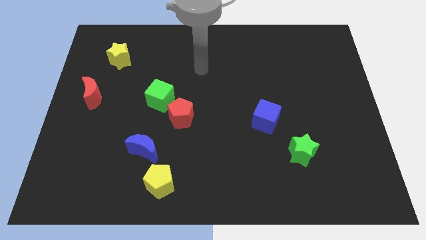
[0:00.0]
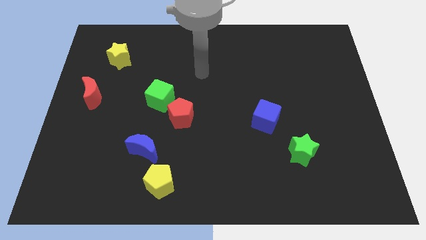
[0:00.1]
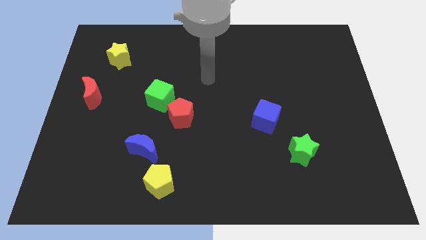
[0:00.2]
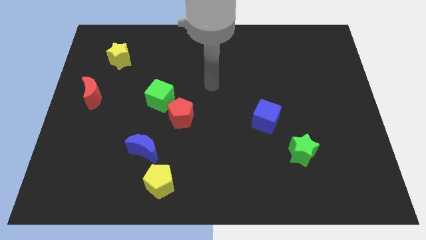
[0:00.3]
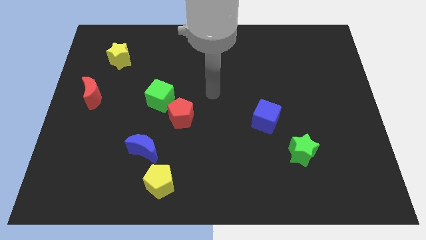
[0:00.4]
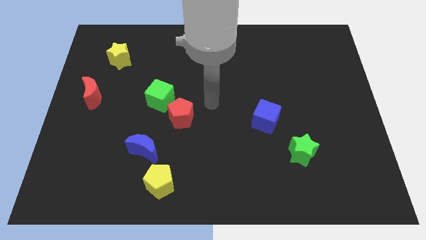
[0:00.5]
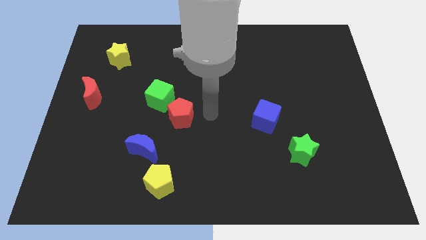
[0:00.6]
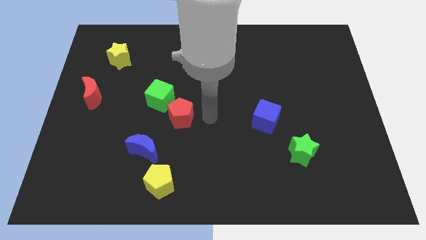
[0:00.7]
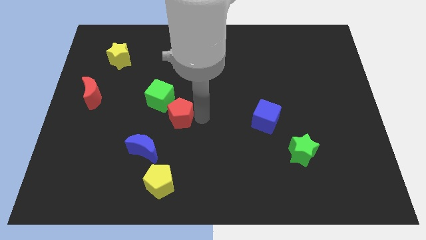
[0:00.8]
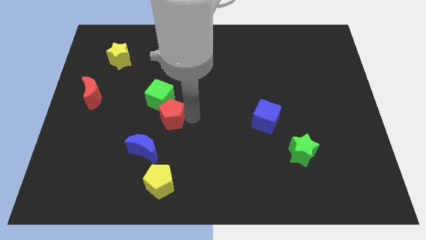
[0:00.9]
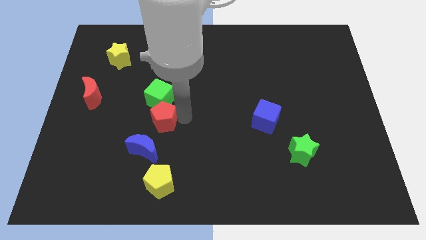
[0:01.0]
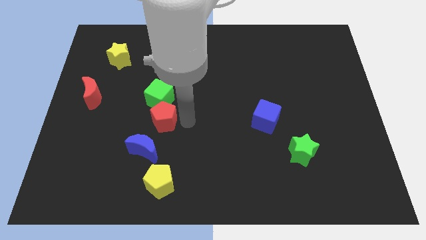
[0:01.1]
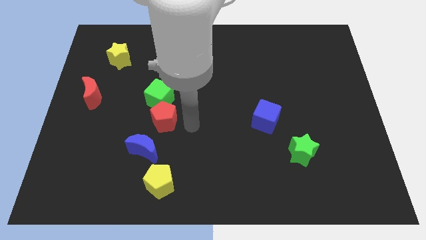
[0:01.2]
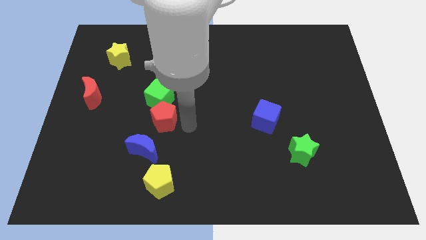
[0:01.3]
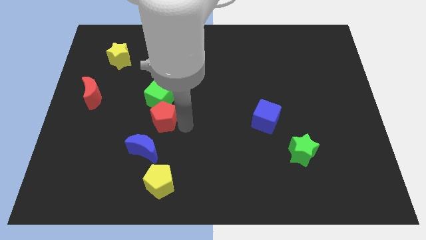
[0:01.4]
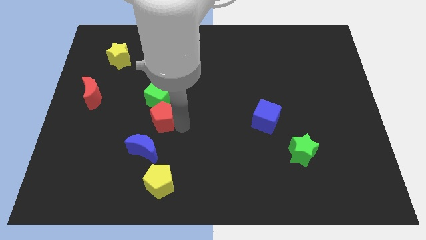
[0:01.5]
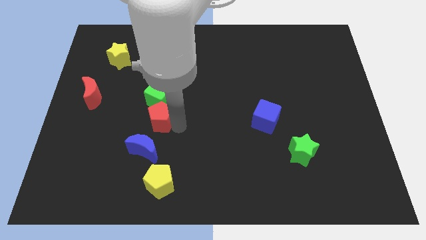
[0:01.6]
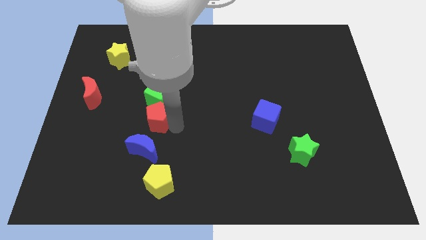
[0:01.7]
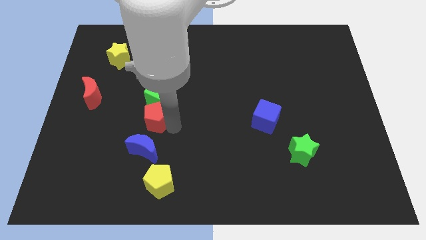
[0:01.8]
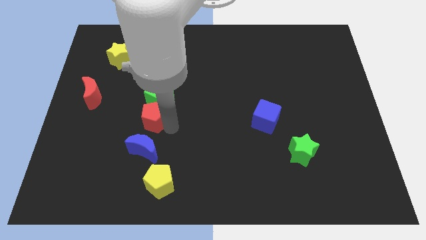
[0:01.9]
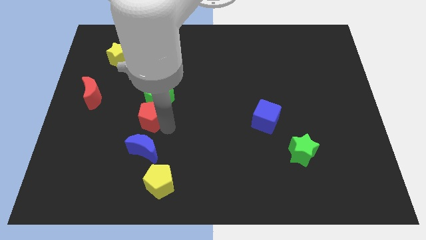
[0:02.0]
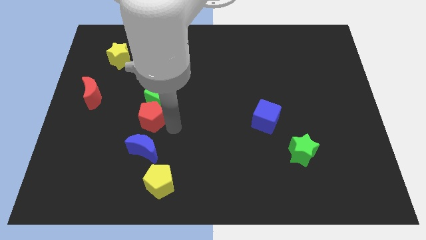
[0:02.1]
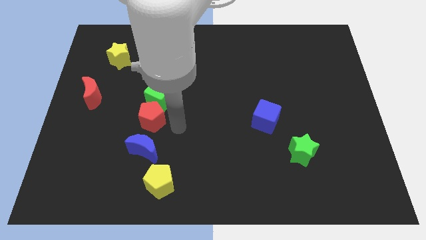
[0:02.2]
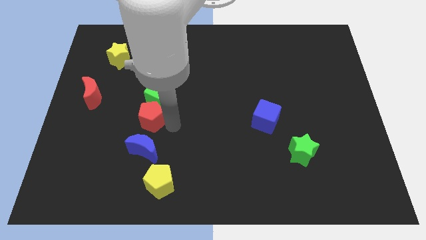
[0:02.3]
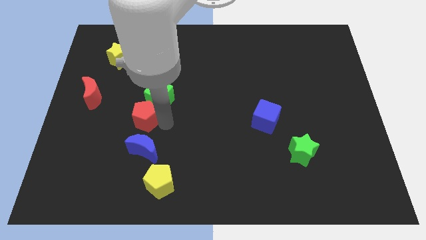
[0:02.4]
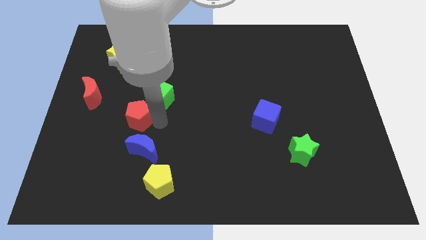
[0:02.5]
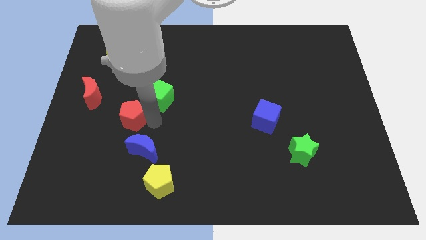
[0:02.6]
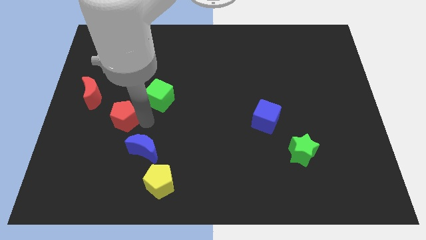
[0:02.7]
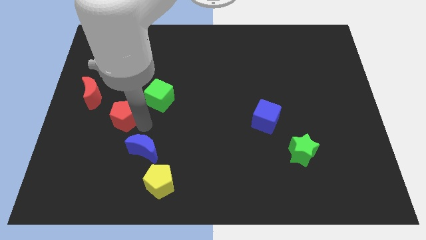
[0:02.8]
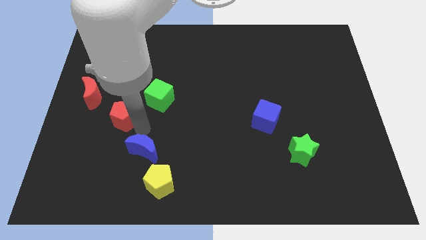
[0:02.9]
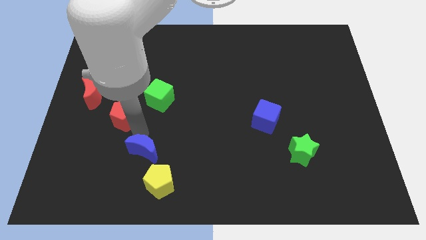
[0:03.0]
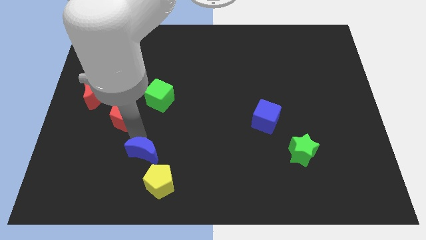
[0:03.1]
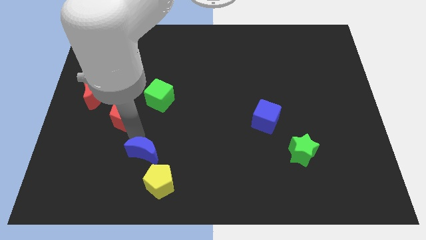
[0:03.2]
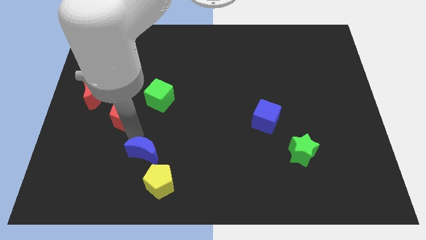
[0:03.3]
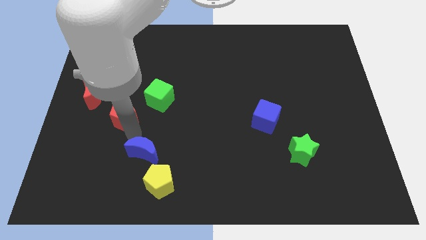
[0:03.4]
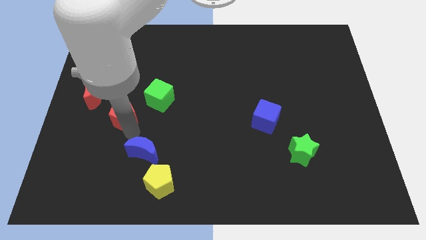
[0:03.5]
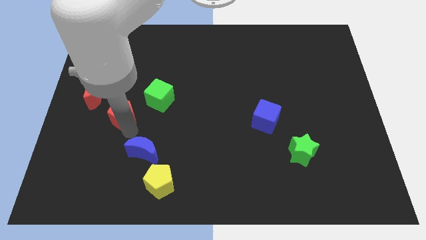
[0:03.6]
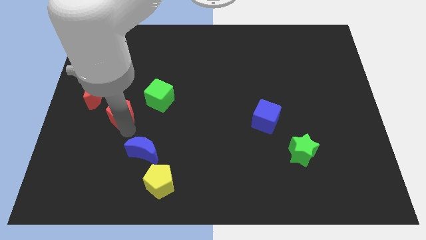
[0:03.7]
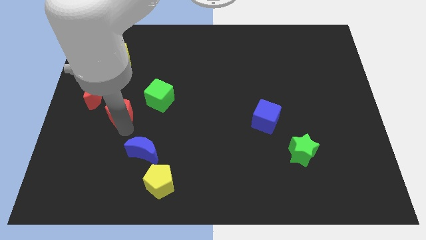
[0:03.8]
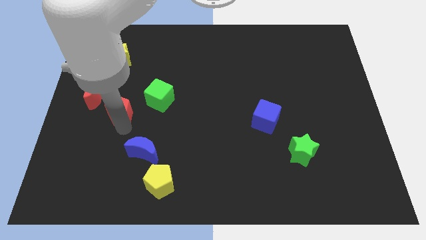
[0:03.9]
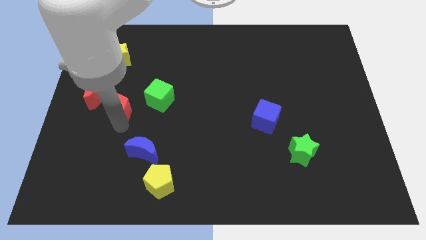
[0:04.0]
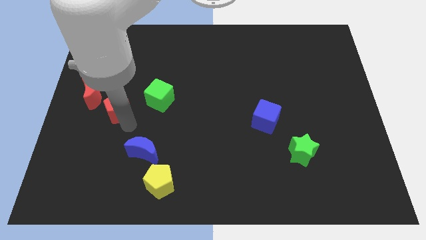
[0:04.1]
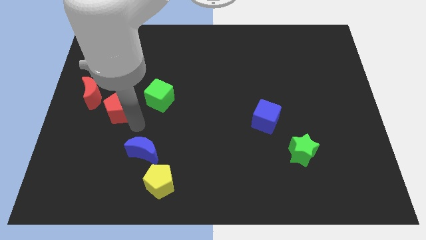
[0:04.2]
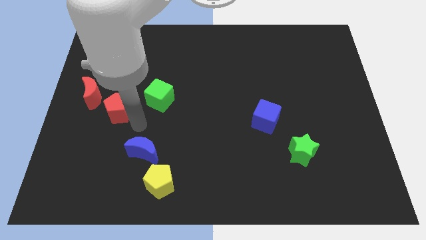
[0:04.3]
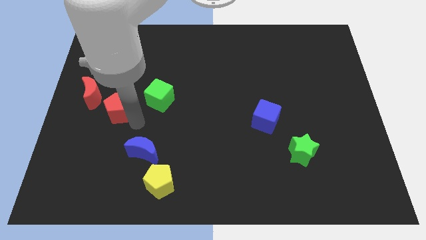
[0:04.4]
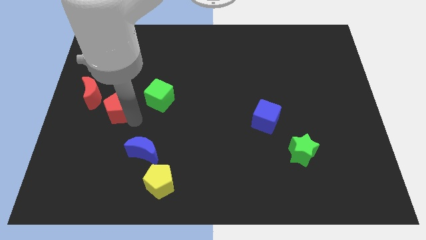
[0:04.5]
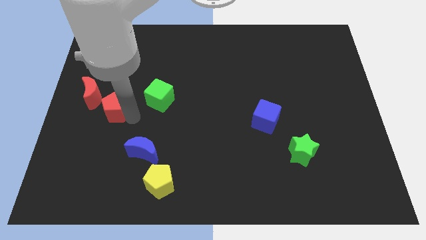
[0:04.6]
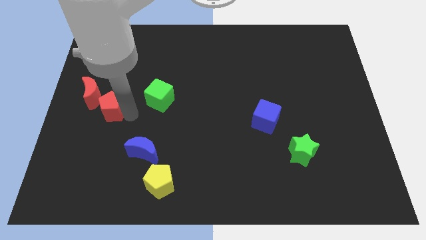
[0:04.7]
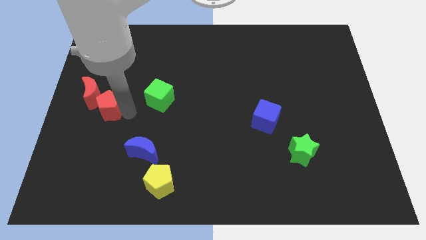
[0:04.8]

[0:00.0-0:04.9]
slide the red pentagon close to the red moon

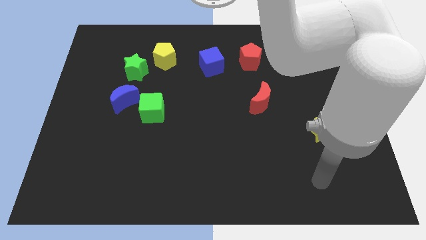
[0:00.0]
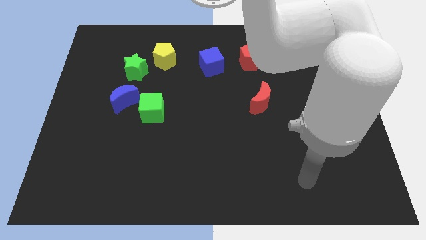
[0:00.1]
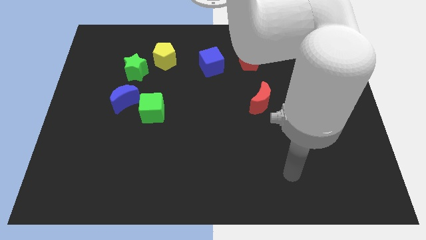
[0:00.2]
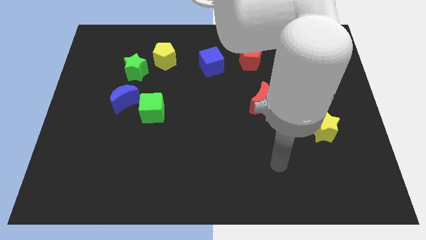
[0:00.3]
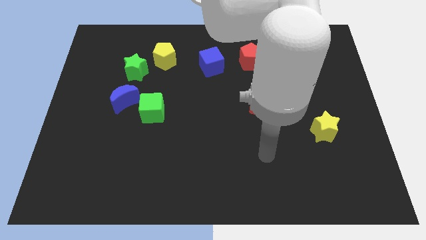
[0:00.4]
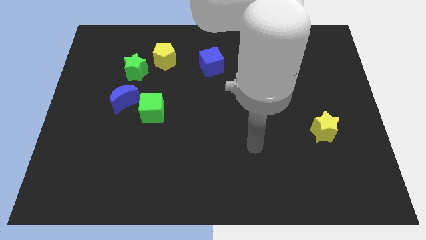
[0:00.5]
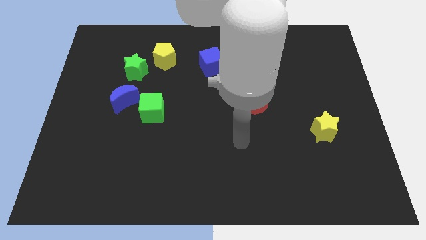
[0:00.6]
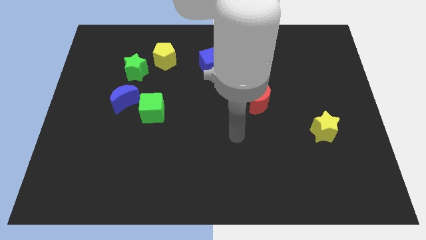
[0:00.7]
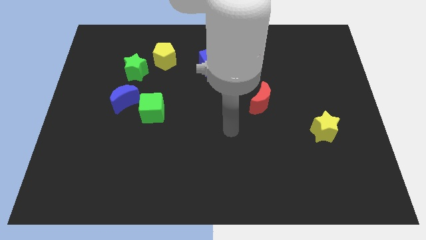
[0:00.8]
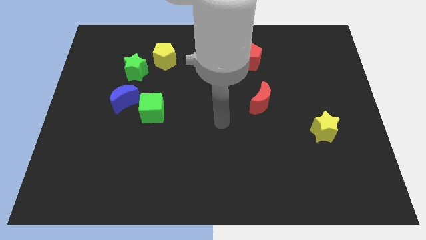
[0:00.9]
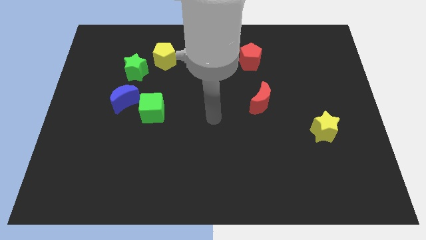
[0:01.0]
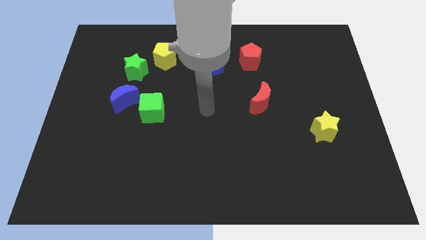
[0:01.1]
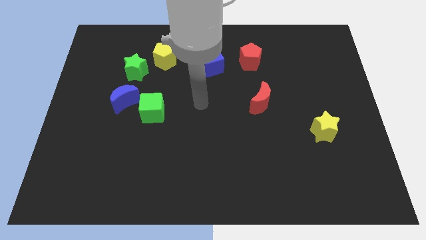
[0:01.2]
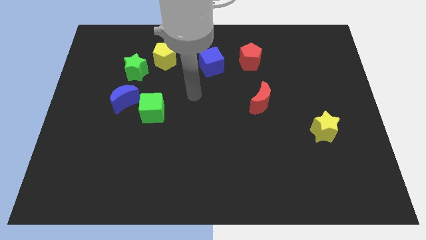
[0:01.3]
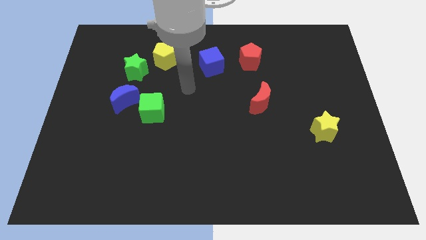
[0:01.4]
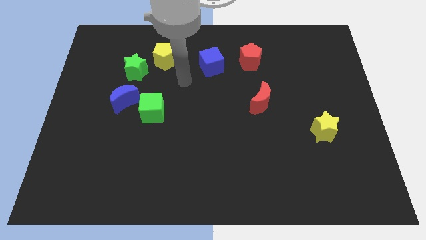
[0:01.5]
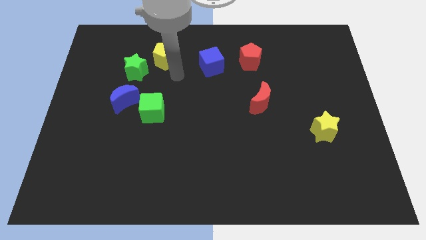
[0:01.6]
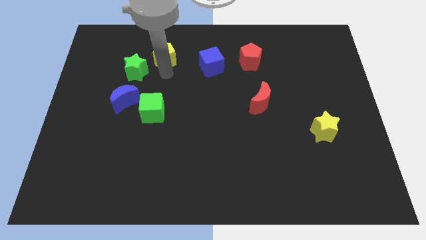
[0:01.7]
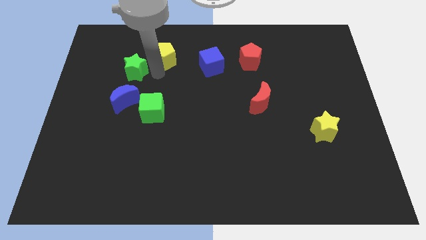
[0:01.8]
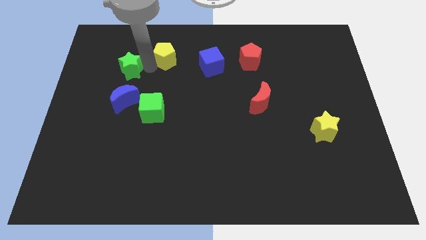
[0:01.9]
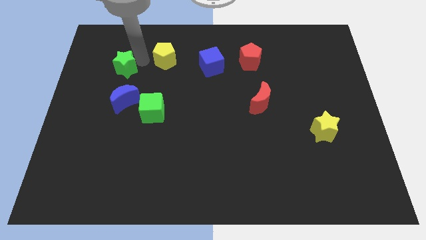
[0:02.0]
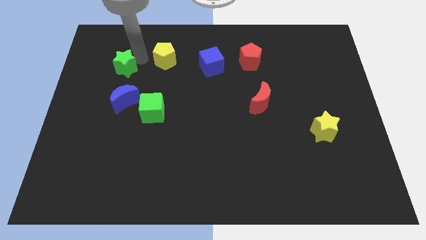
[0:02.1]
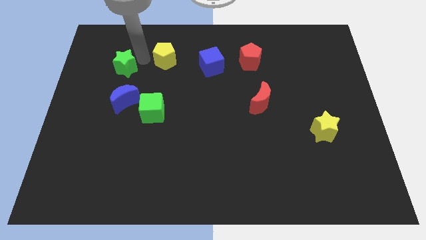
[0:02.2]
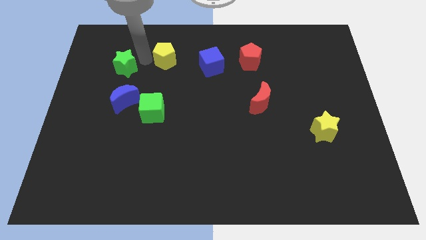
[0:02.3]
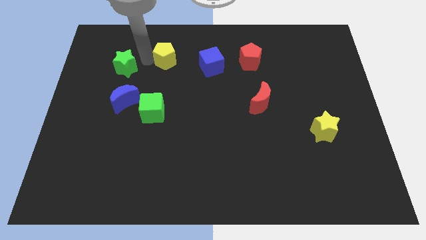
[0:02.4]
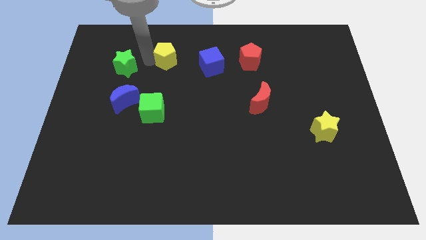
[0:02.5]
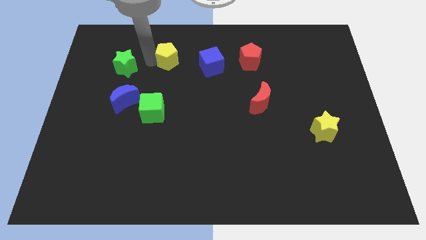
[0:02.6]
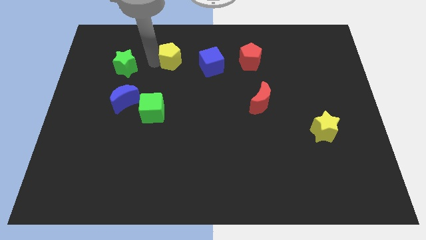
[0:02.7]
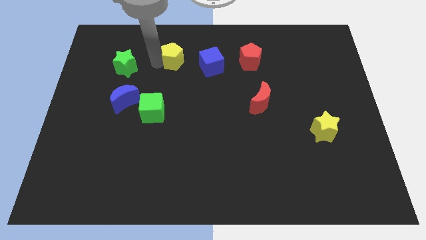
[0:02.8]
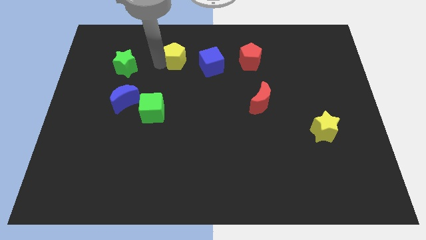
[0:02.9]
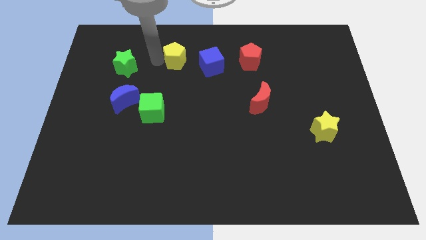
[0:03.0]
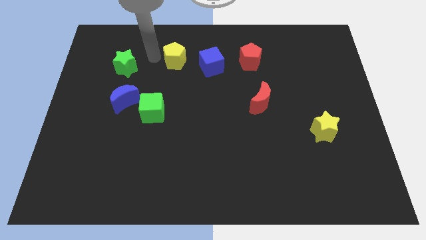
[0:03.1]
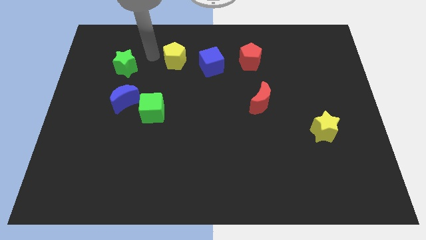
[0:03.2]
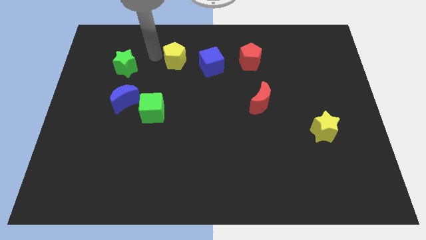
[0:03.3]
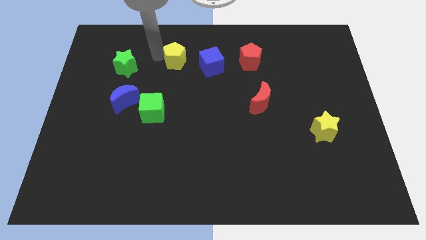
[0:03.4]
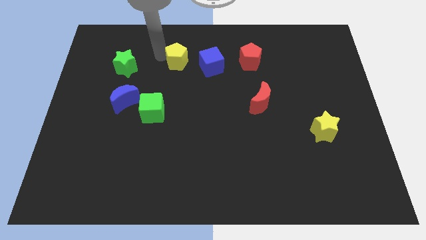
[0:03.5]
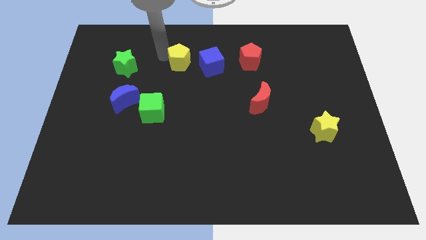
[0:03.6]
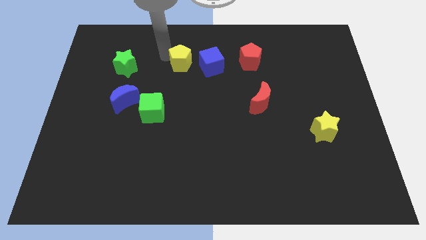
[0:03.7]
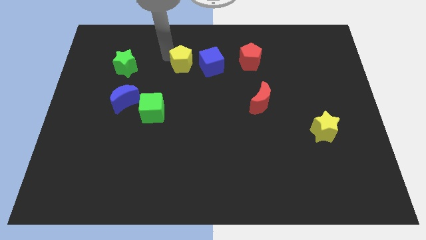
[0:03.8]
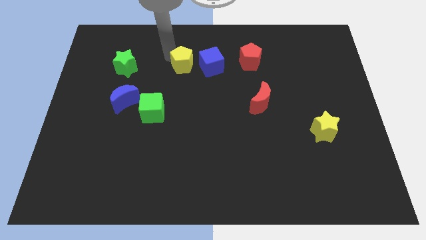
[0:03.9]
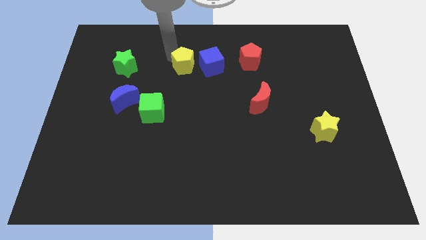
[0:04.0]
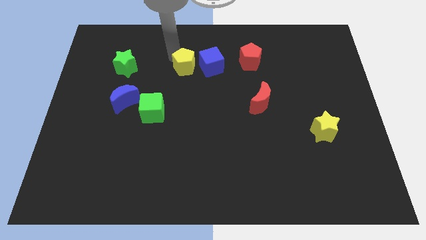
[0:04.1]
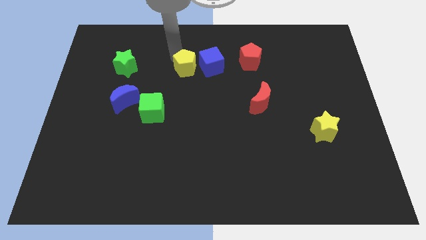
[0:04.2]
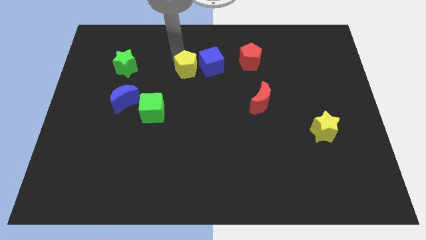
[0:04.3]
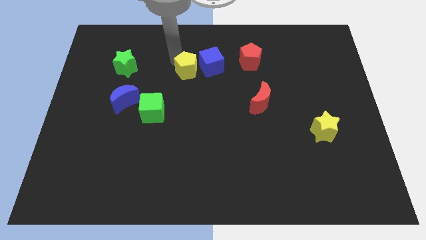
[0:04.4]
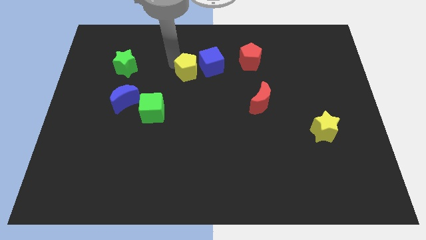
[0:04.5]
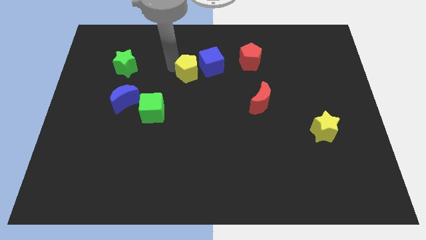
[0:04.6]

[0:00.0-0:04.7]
push the yellow pentagon to the blue cube
